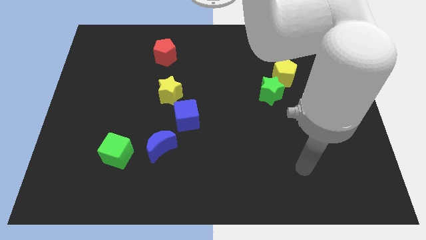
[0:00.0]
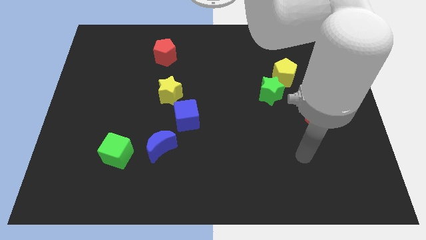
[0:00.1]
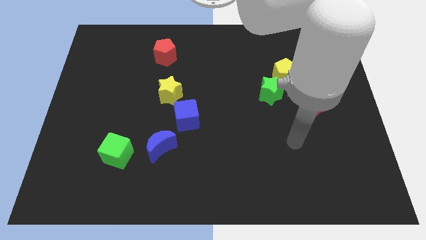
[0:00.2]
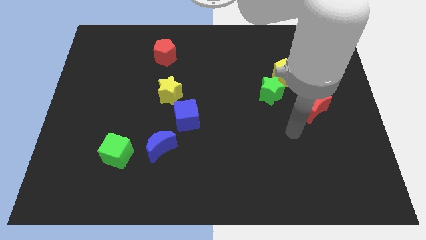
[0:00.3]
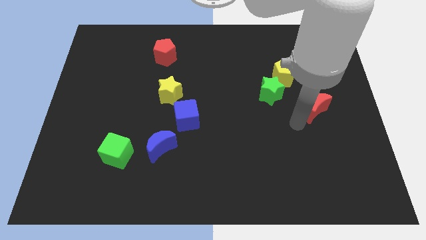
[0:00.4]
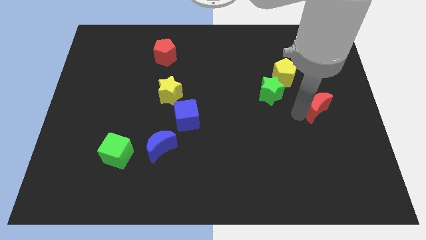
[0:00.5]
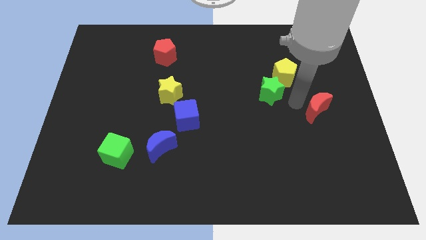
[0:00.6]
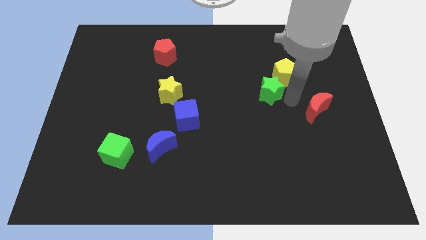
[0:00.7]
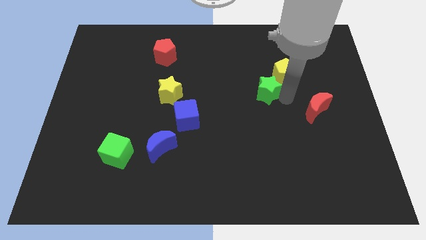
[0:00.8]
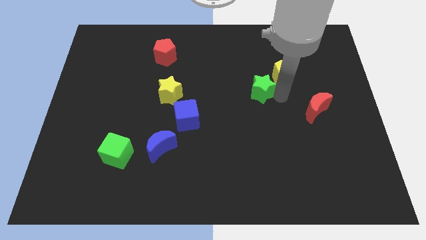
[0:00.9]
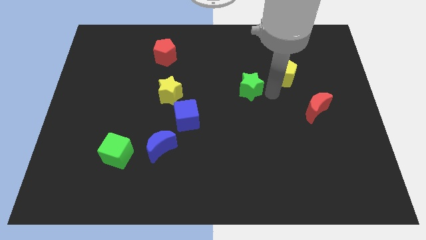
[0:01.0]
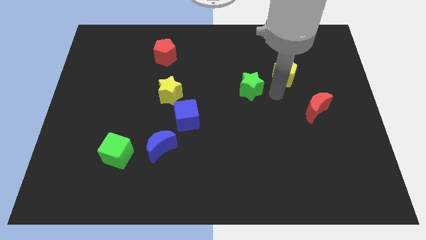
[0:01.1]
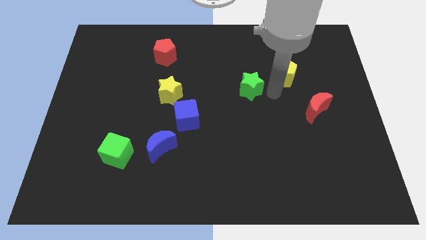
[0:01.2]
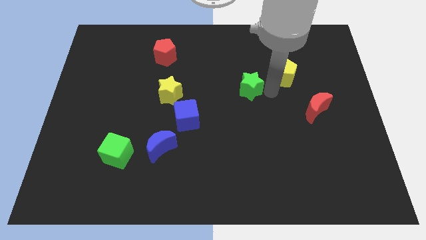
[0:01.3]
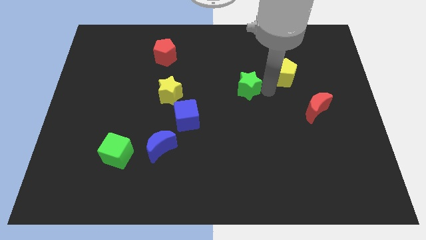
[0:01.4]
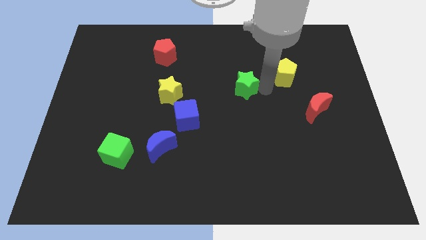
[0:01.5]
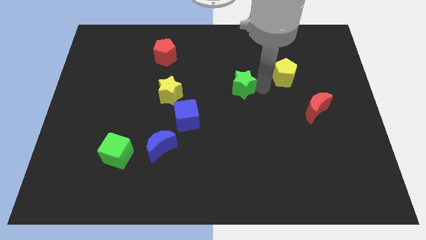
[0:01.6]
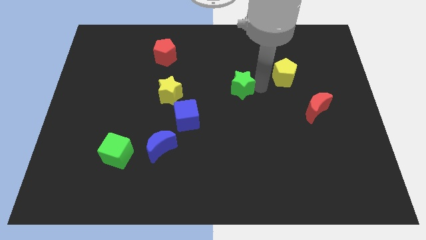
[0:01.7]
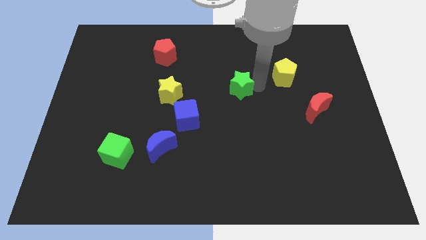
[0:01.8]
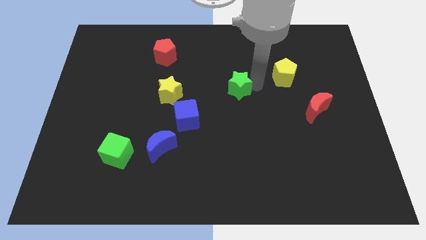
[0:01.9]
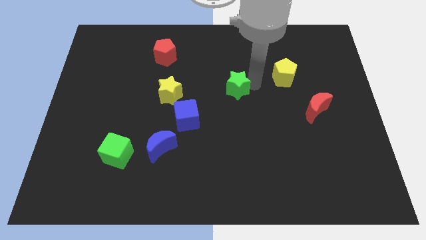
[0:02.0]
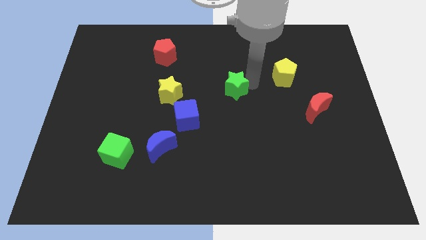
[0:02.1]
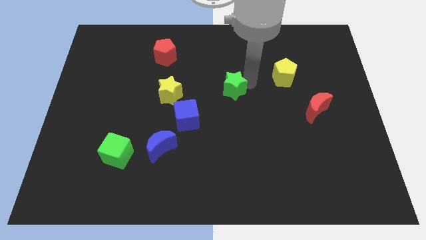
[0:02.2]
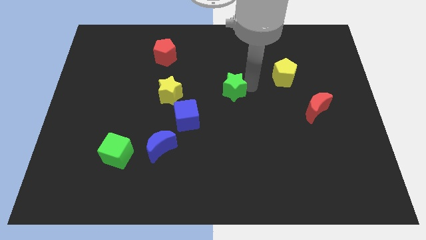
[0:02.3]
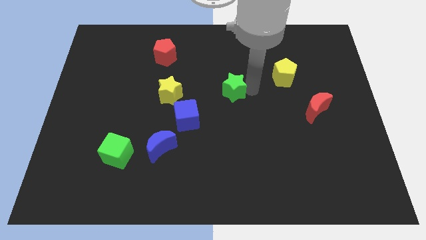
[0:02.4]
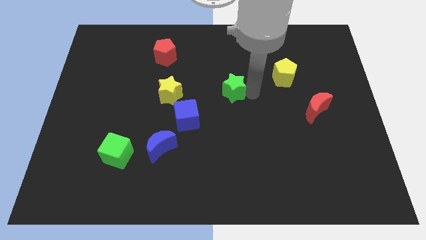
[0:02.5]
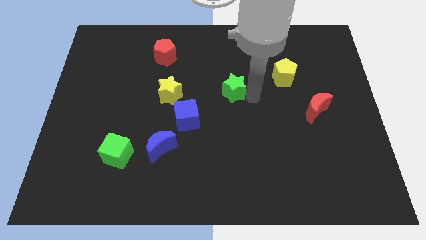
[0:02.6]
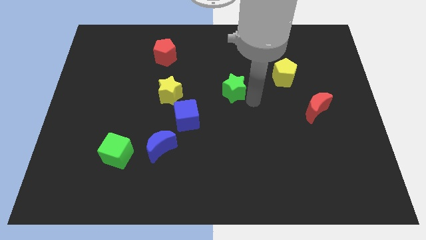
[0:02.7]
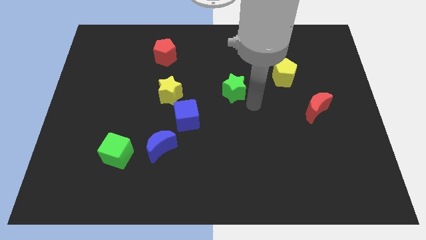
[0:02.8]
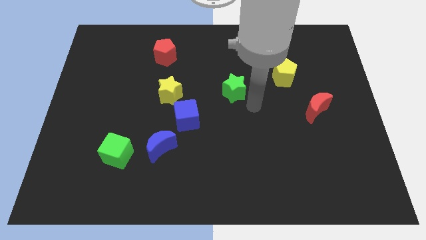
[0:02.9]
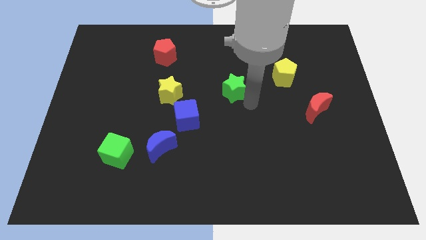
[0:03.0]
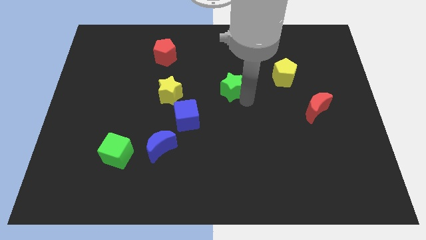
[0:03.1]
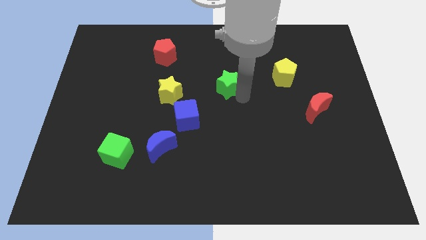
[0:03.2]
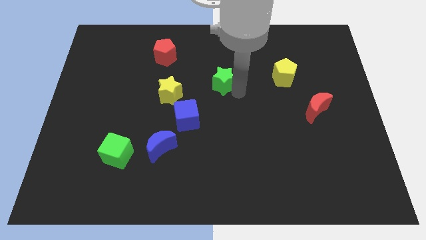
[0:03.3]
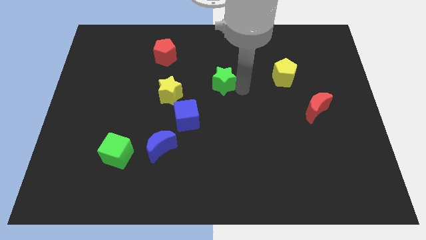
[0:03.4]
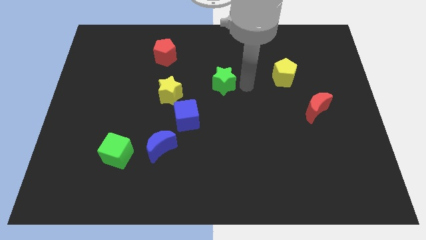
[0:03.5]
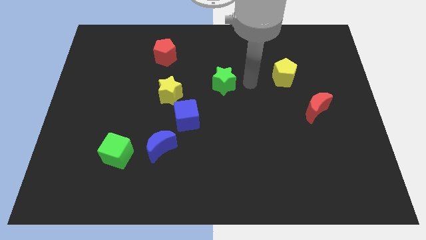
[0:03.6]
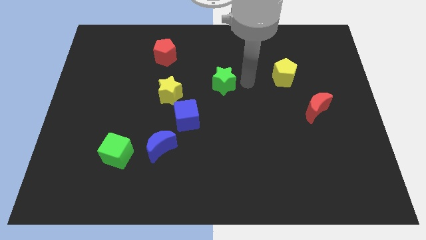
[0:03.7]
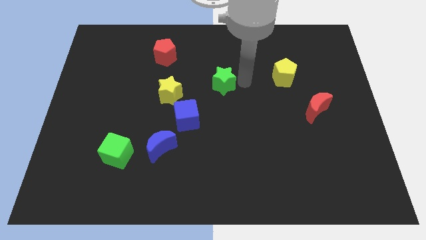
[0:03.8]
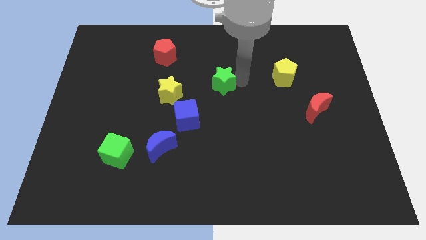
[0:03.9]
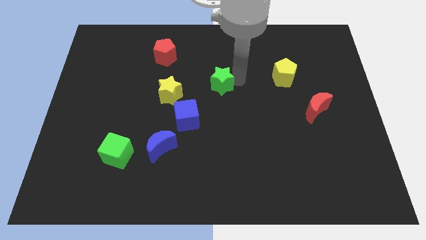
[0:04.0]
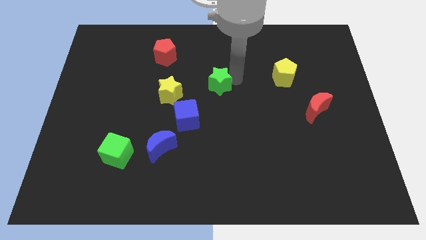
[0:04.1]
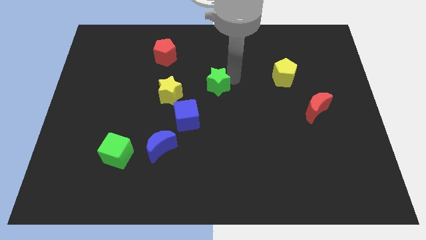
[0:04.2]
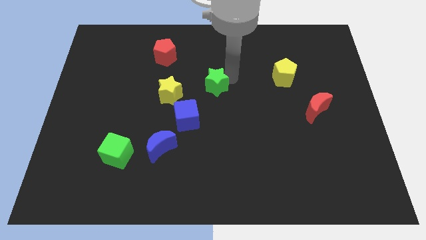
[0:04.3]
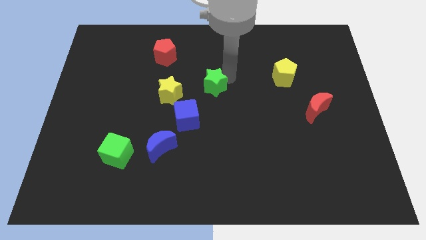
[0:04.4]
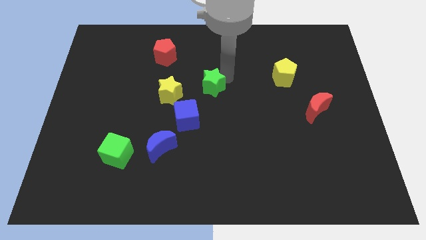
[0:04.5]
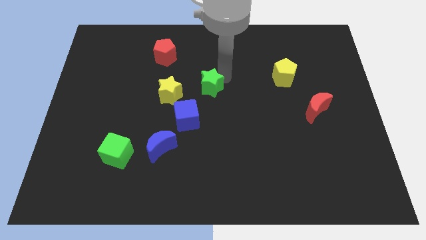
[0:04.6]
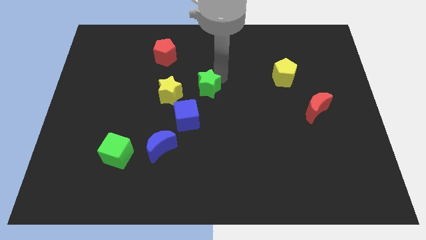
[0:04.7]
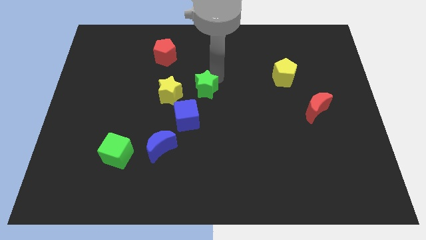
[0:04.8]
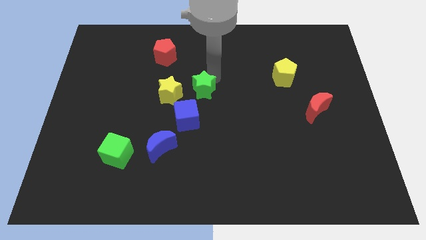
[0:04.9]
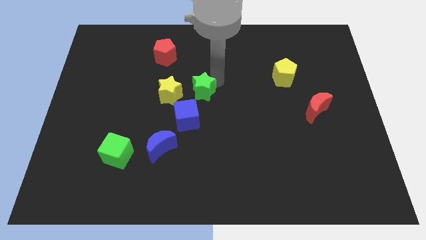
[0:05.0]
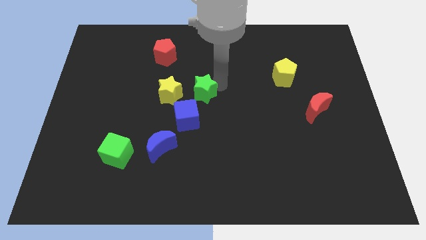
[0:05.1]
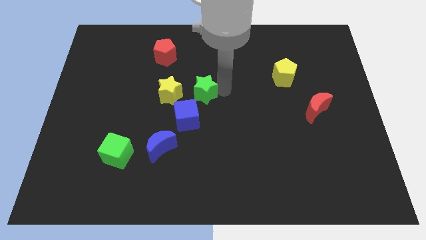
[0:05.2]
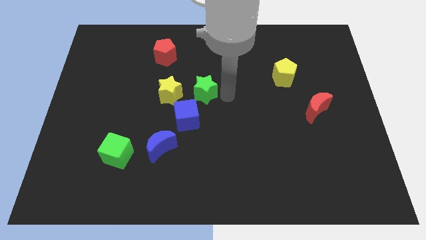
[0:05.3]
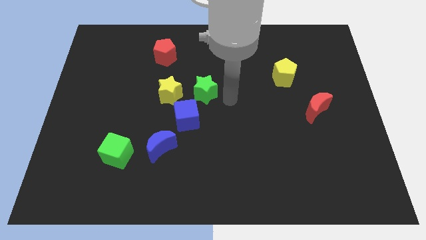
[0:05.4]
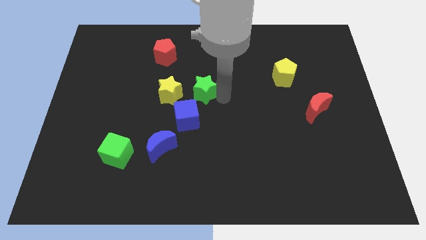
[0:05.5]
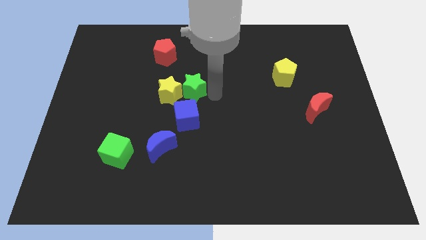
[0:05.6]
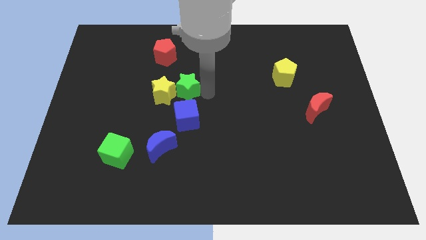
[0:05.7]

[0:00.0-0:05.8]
slide the green star left

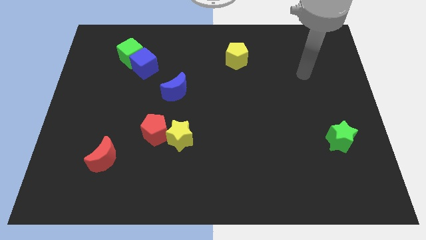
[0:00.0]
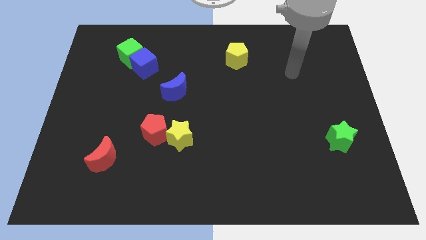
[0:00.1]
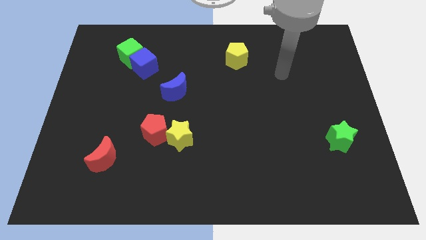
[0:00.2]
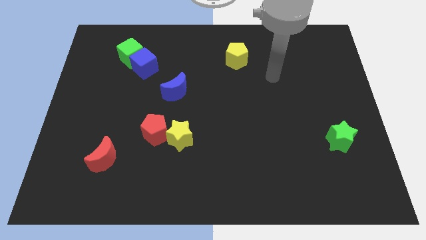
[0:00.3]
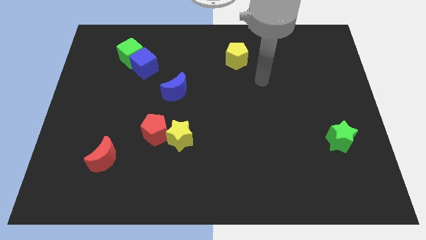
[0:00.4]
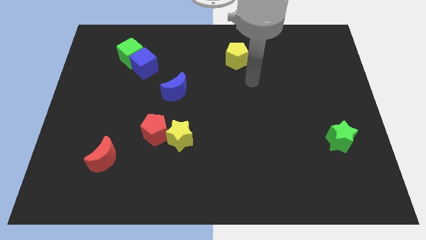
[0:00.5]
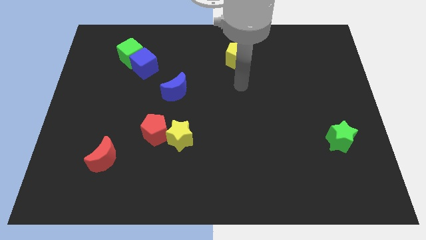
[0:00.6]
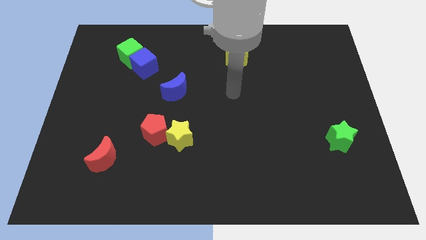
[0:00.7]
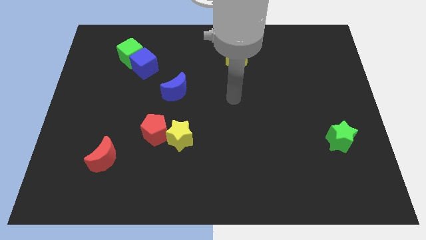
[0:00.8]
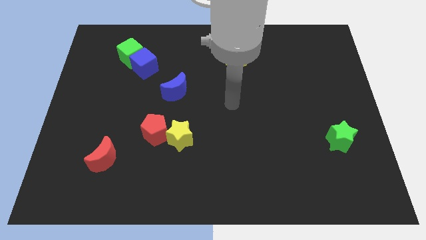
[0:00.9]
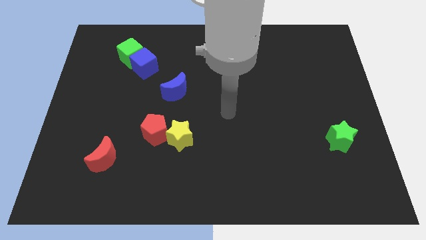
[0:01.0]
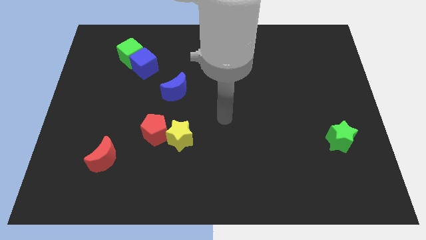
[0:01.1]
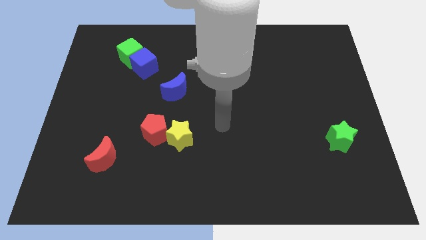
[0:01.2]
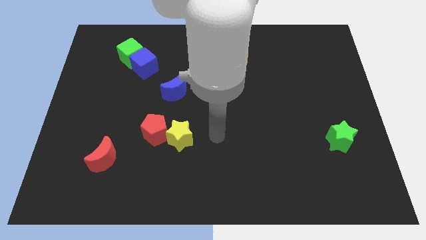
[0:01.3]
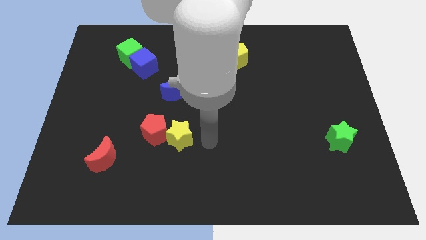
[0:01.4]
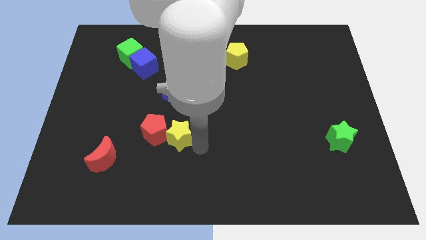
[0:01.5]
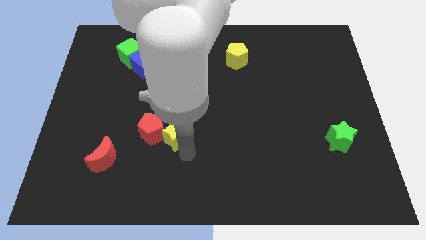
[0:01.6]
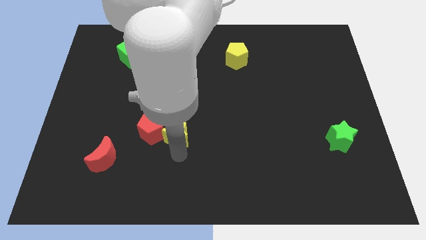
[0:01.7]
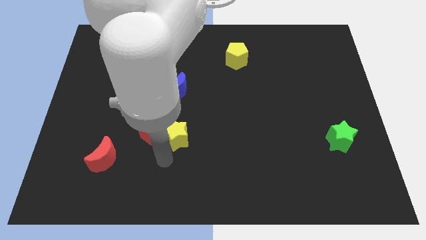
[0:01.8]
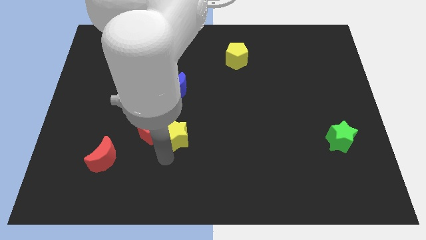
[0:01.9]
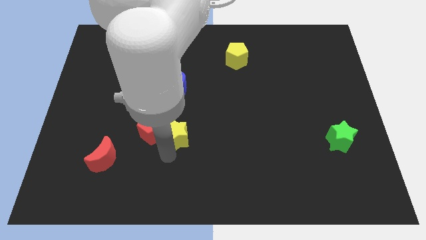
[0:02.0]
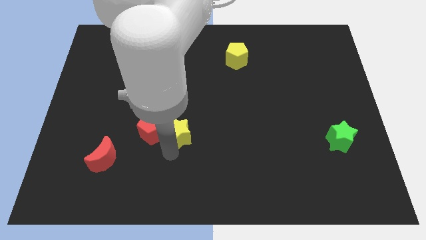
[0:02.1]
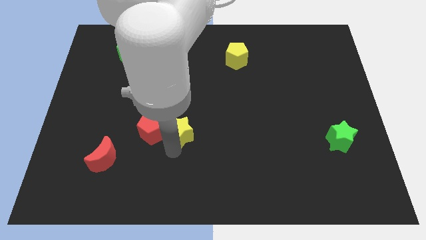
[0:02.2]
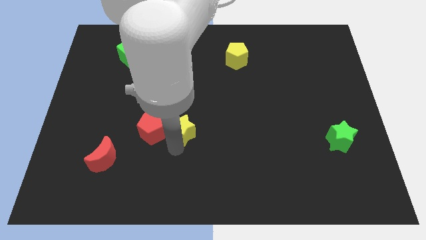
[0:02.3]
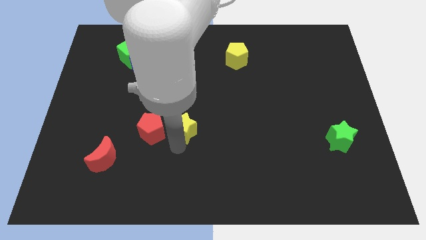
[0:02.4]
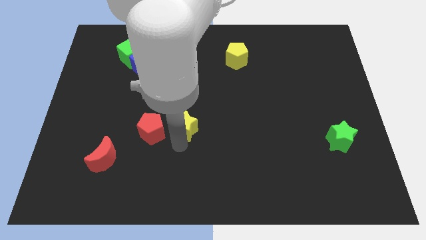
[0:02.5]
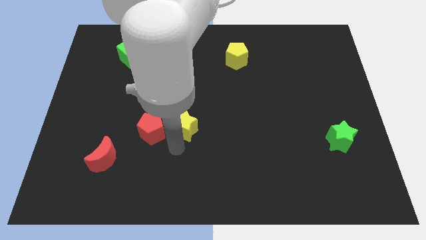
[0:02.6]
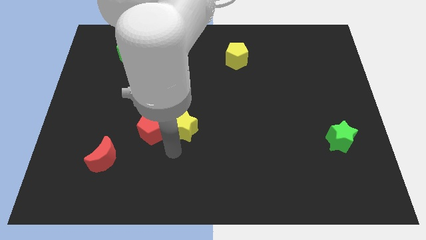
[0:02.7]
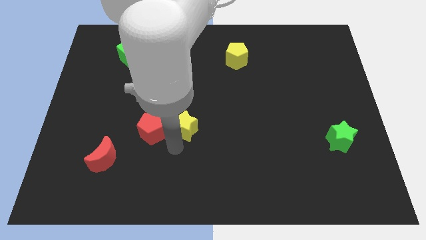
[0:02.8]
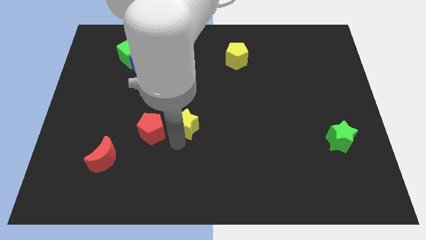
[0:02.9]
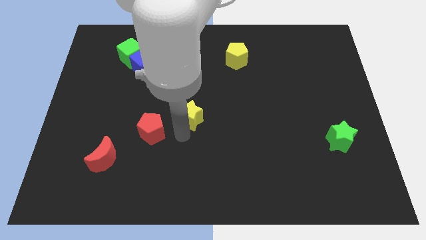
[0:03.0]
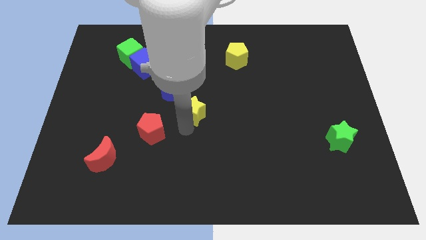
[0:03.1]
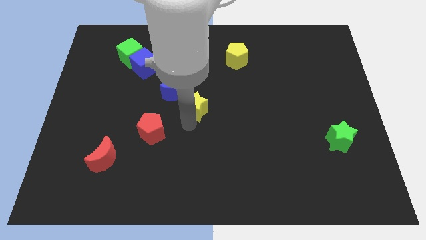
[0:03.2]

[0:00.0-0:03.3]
slide the yellow star upwards a little
